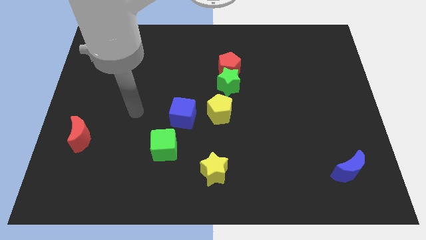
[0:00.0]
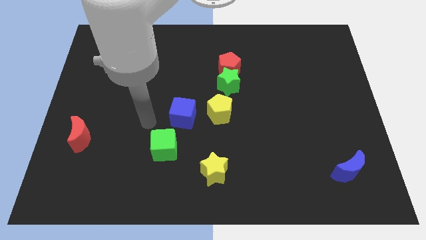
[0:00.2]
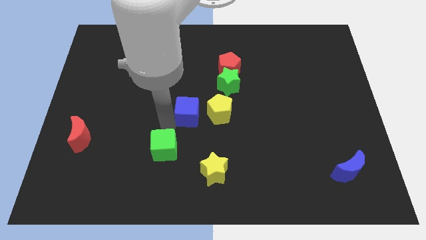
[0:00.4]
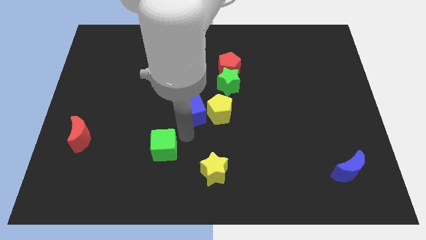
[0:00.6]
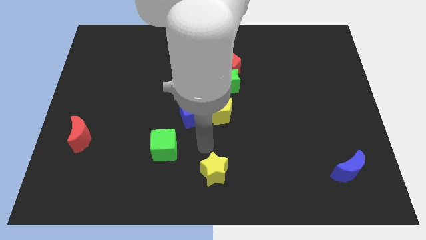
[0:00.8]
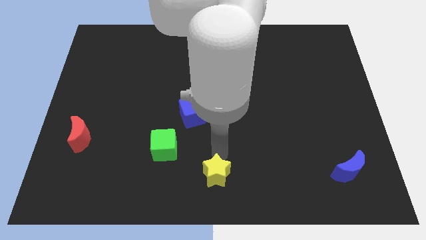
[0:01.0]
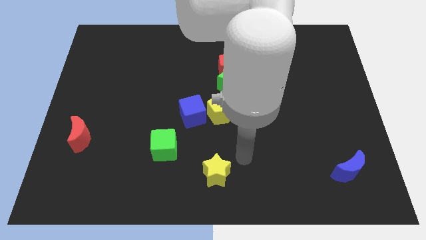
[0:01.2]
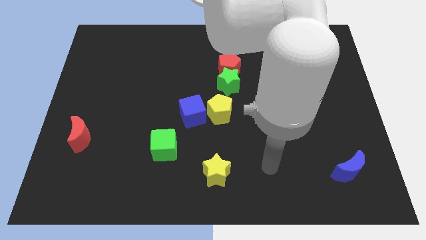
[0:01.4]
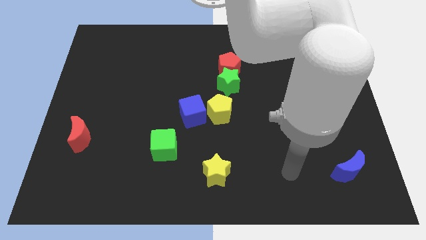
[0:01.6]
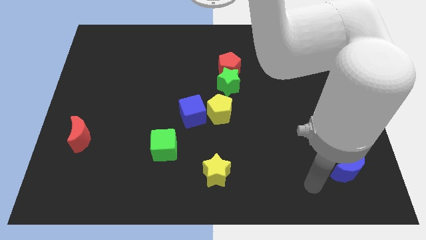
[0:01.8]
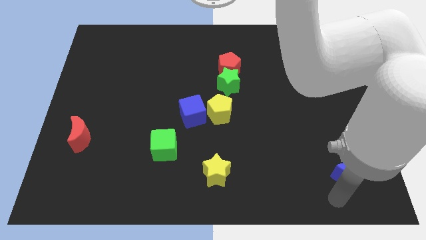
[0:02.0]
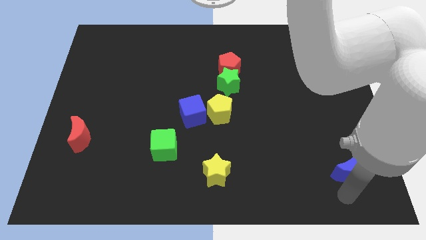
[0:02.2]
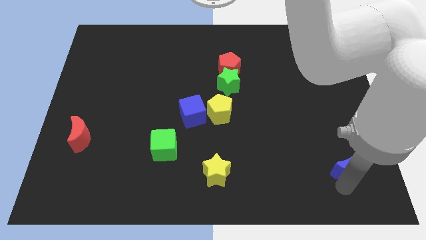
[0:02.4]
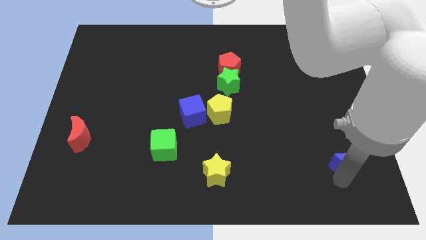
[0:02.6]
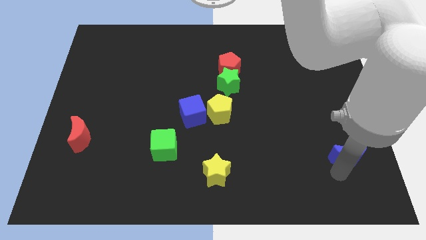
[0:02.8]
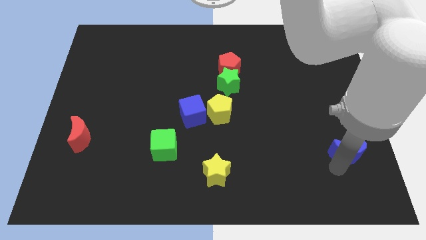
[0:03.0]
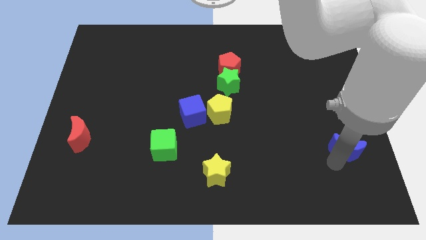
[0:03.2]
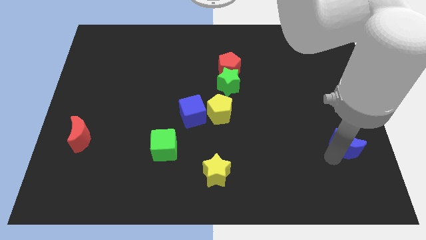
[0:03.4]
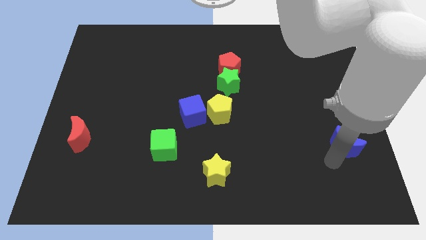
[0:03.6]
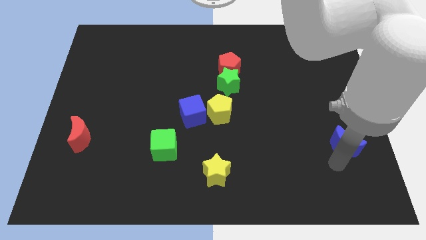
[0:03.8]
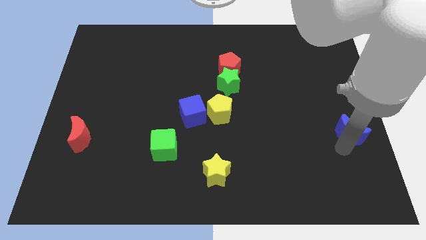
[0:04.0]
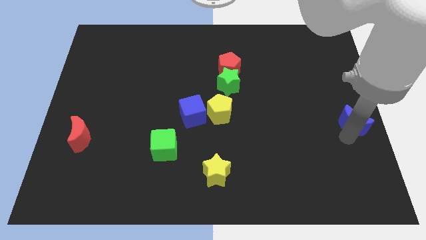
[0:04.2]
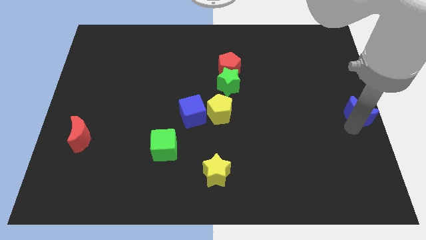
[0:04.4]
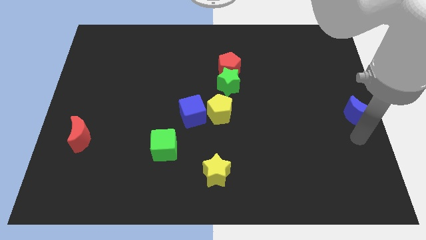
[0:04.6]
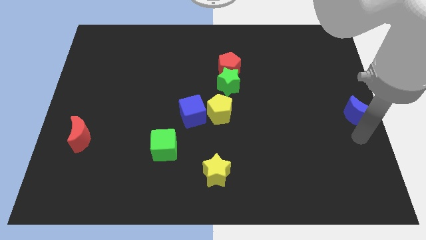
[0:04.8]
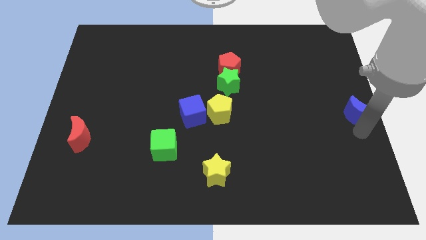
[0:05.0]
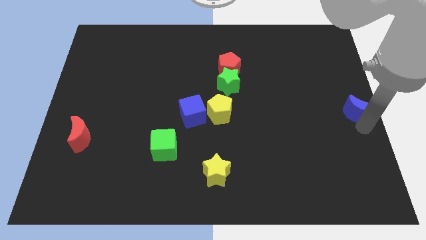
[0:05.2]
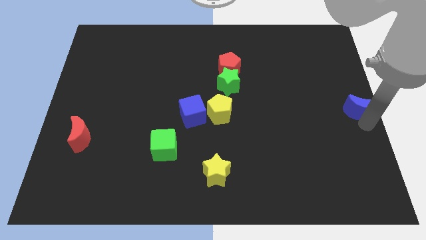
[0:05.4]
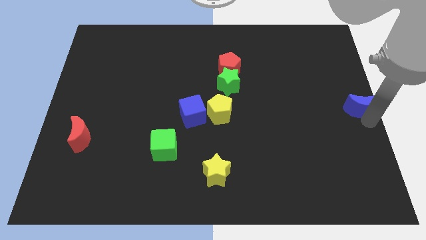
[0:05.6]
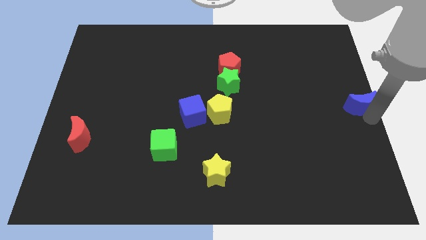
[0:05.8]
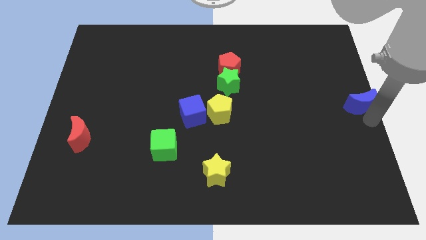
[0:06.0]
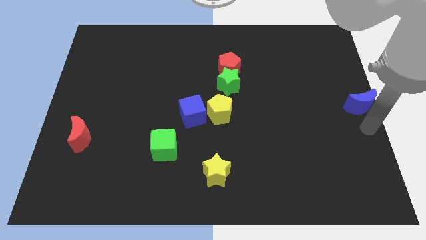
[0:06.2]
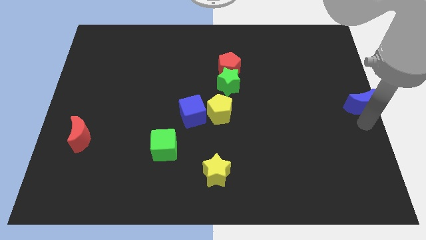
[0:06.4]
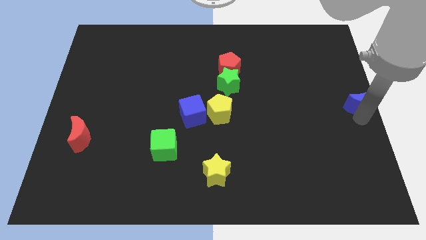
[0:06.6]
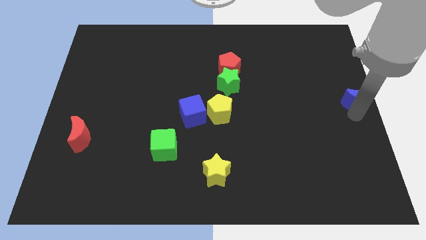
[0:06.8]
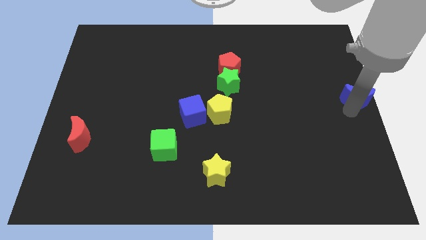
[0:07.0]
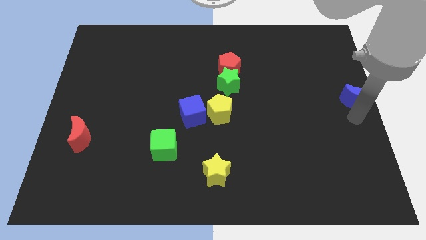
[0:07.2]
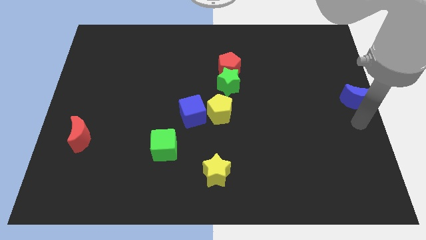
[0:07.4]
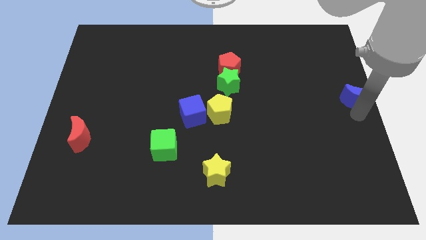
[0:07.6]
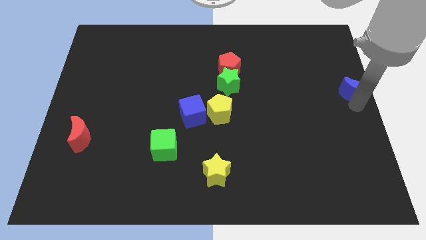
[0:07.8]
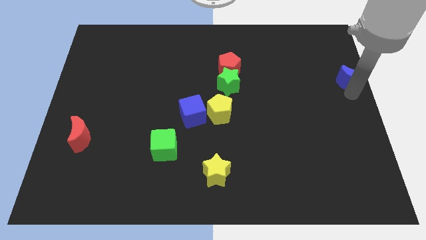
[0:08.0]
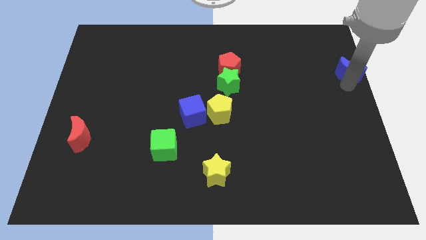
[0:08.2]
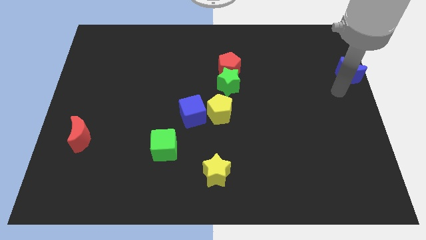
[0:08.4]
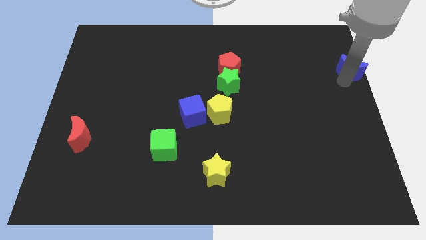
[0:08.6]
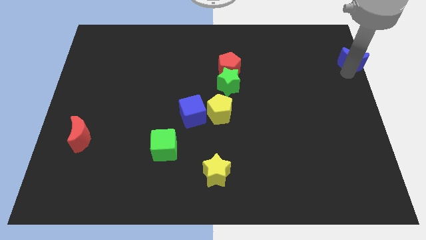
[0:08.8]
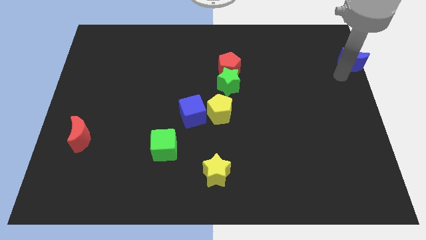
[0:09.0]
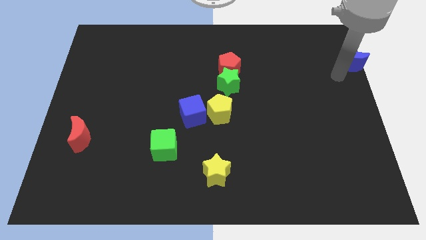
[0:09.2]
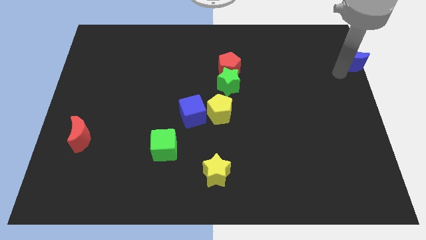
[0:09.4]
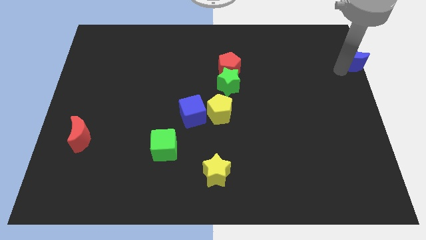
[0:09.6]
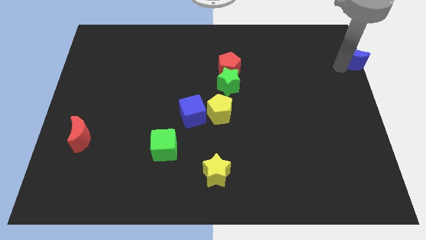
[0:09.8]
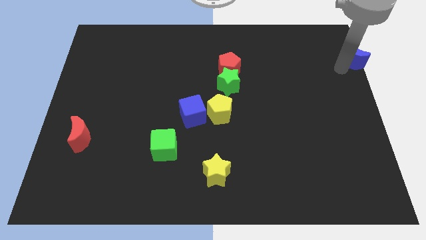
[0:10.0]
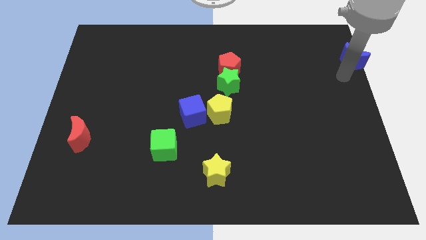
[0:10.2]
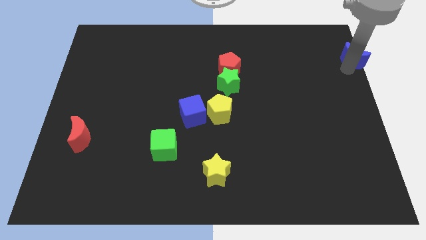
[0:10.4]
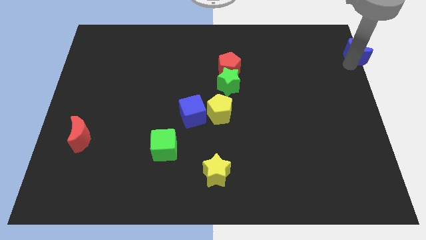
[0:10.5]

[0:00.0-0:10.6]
push the blue moon to the top right of the board

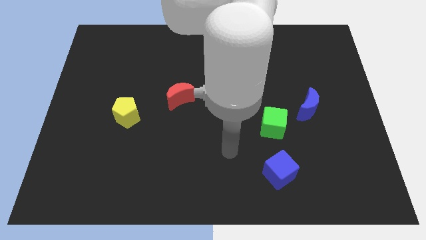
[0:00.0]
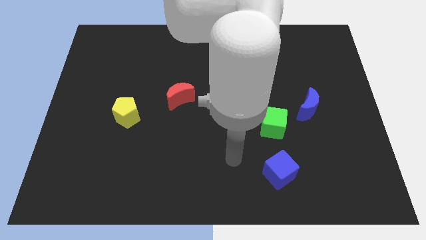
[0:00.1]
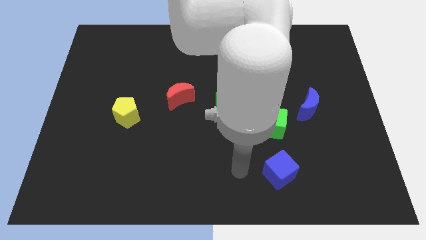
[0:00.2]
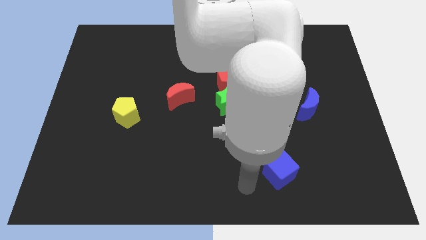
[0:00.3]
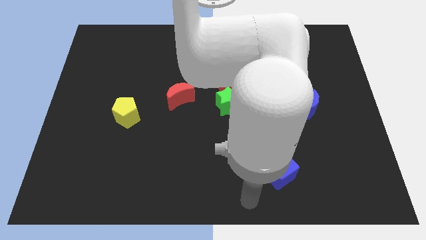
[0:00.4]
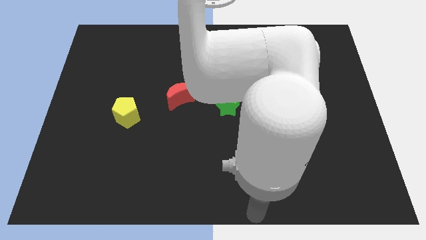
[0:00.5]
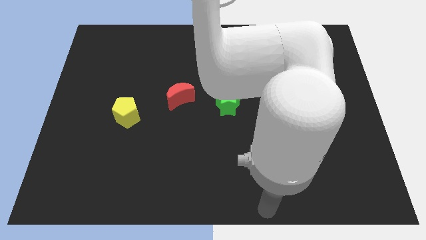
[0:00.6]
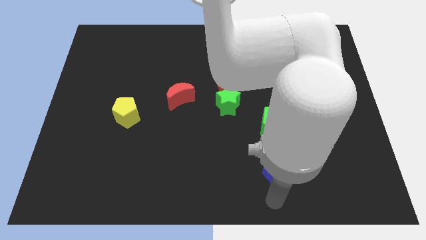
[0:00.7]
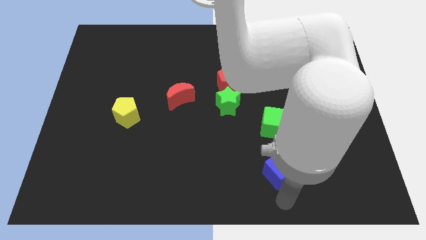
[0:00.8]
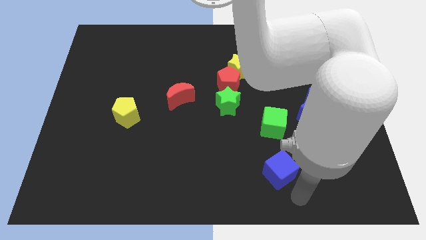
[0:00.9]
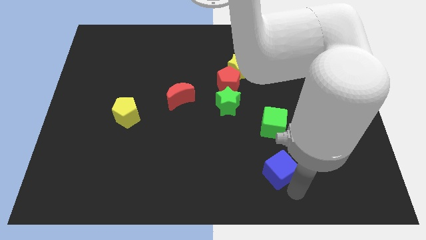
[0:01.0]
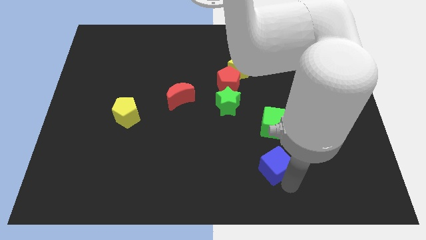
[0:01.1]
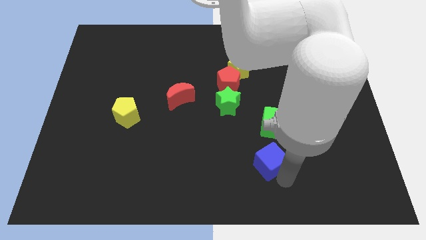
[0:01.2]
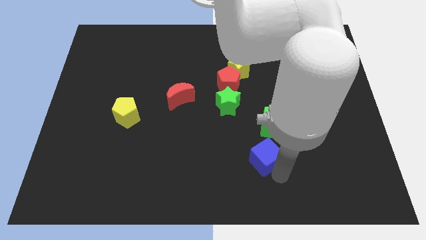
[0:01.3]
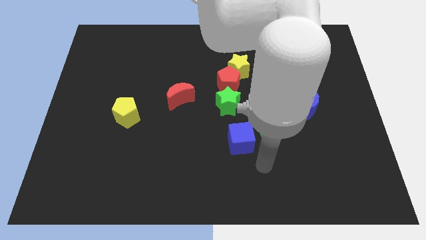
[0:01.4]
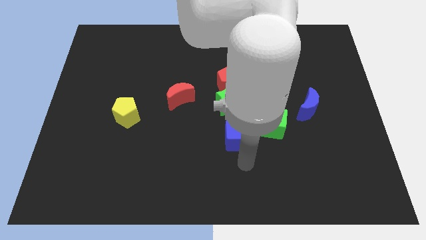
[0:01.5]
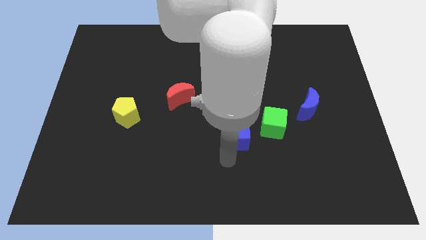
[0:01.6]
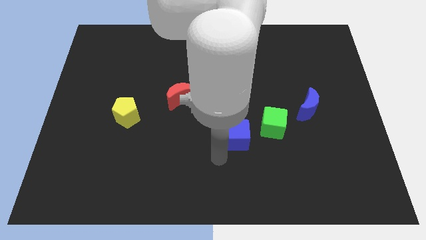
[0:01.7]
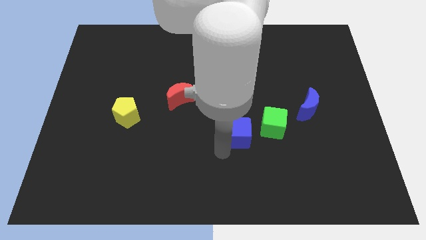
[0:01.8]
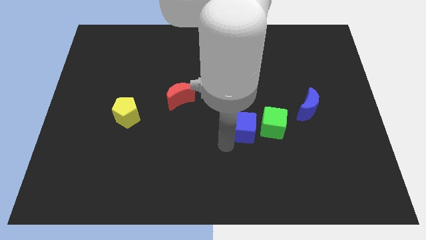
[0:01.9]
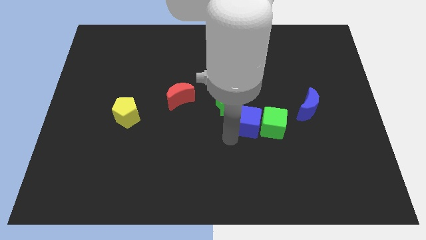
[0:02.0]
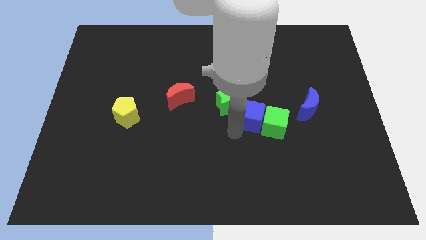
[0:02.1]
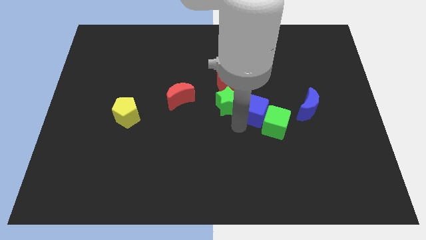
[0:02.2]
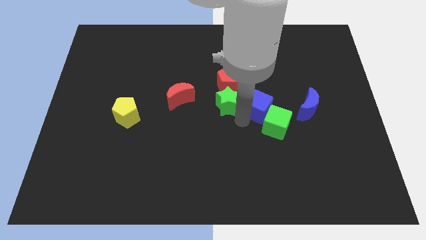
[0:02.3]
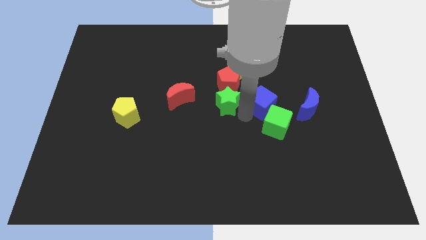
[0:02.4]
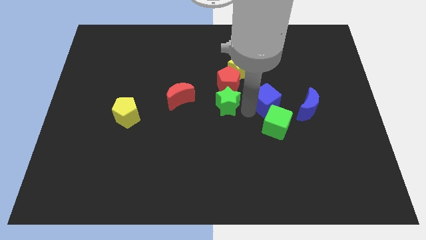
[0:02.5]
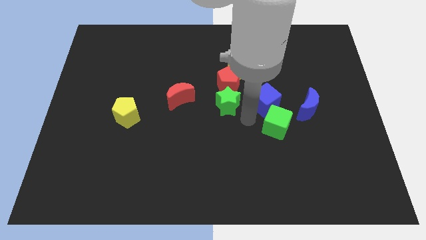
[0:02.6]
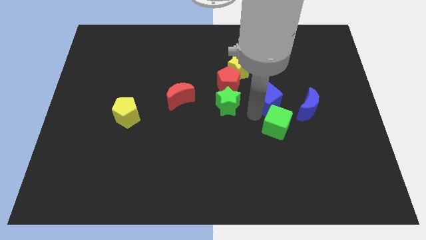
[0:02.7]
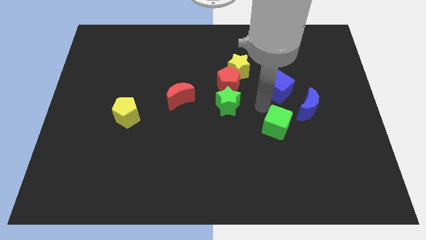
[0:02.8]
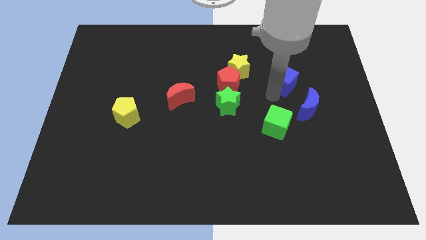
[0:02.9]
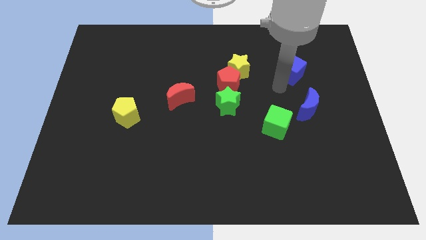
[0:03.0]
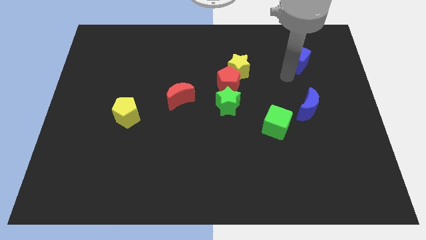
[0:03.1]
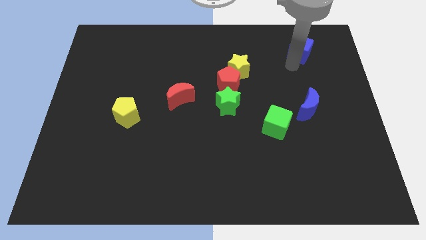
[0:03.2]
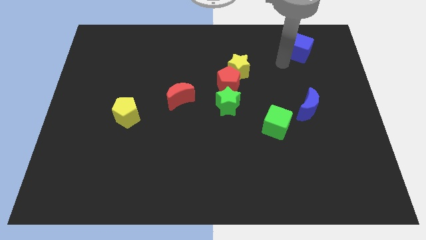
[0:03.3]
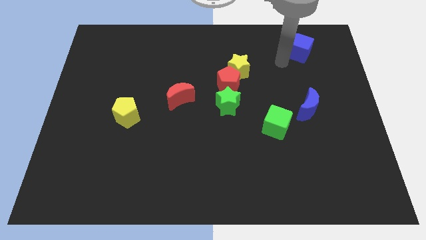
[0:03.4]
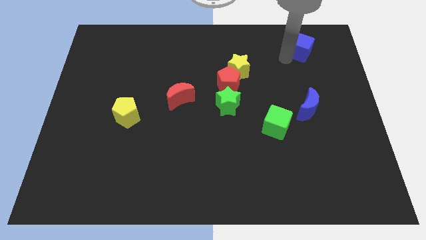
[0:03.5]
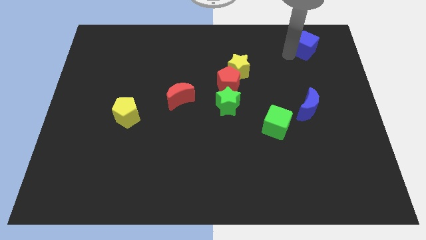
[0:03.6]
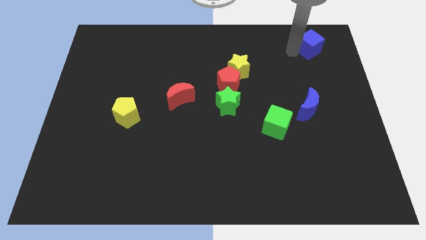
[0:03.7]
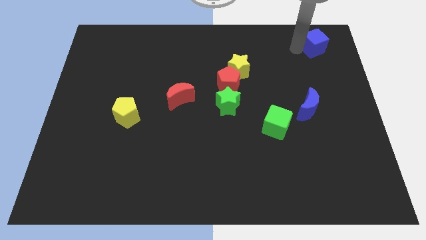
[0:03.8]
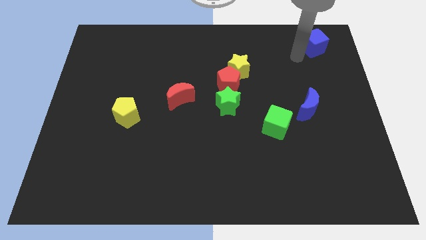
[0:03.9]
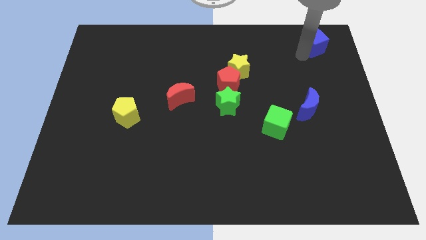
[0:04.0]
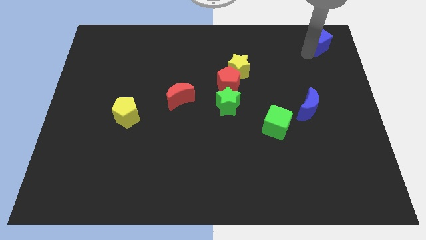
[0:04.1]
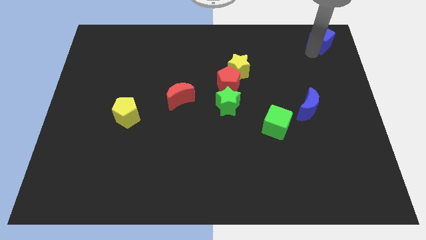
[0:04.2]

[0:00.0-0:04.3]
put the blue cube to the top right
